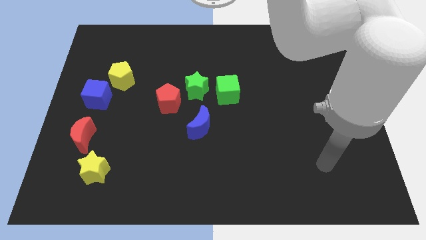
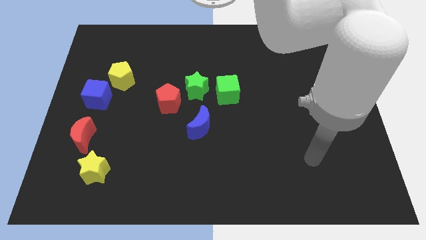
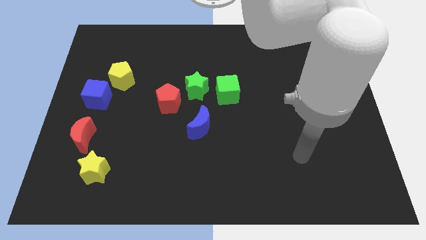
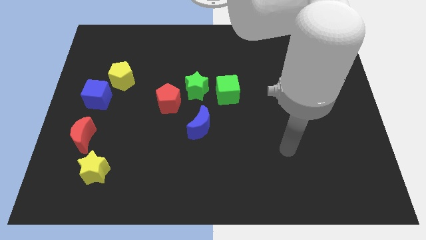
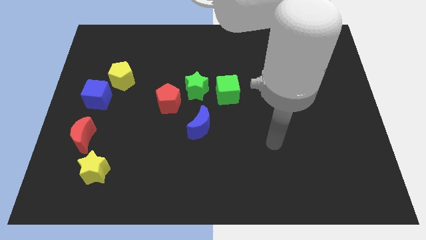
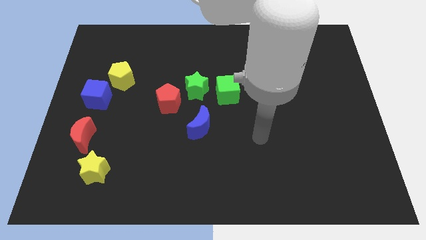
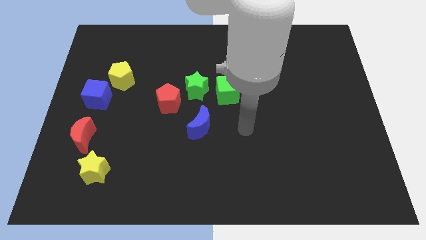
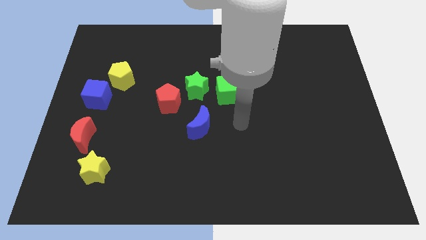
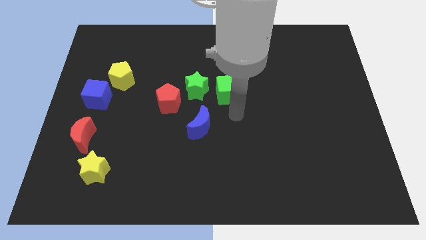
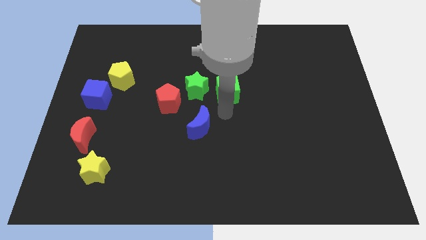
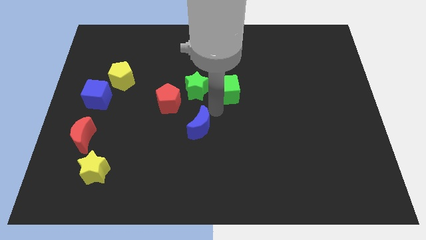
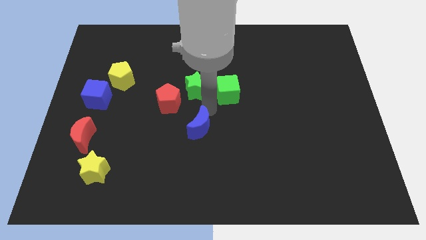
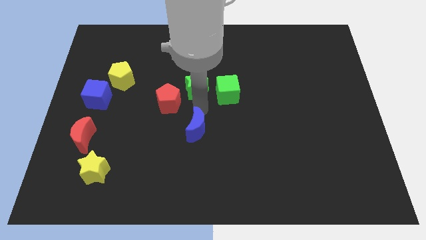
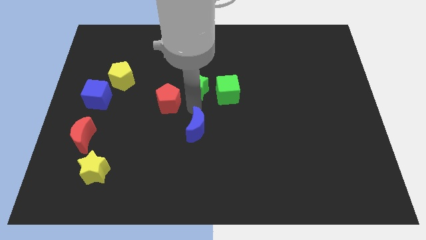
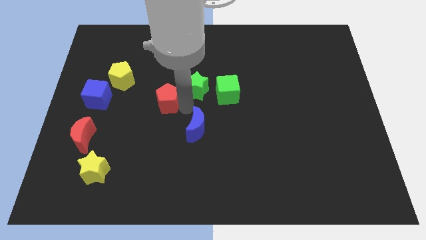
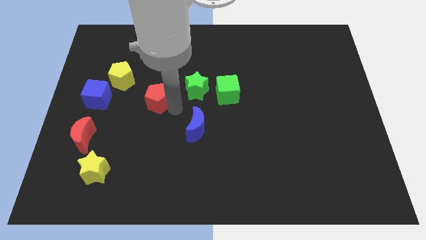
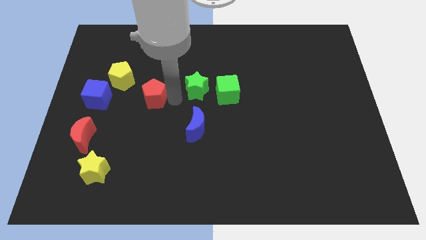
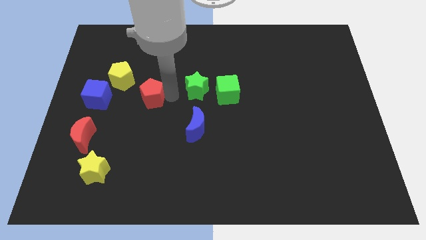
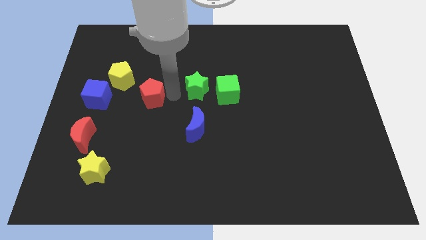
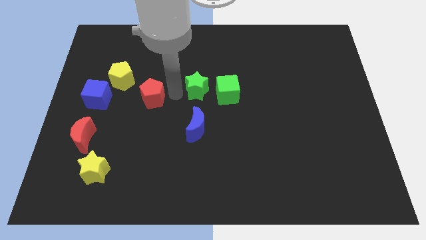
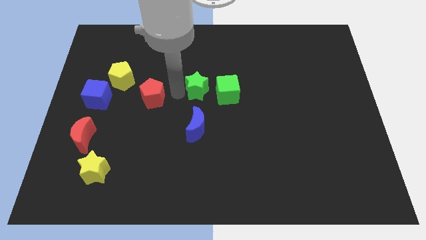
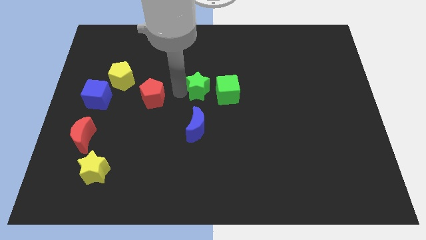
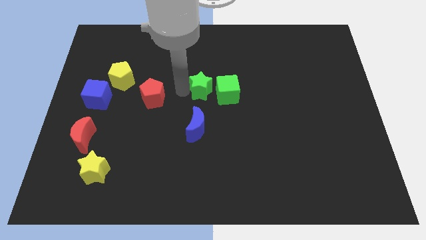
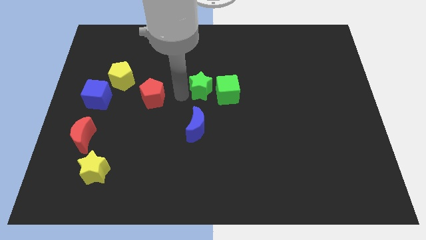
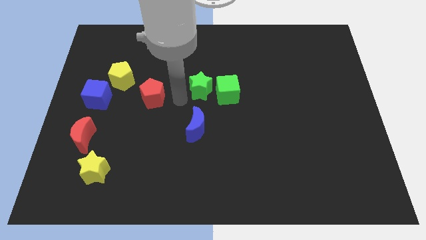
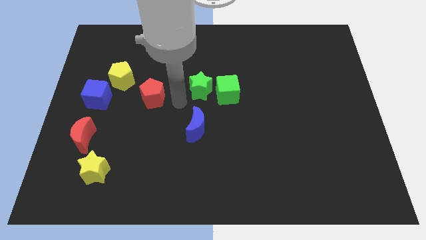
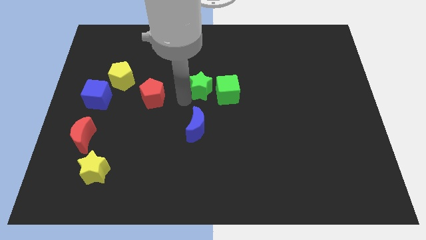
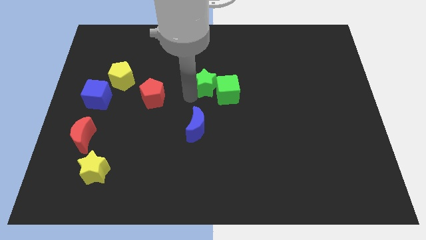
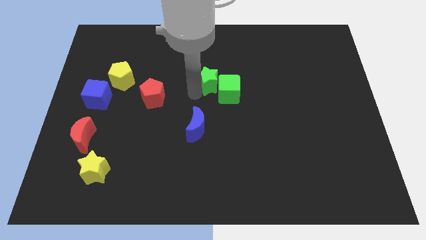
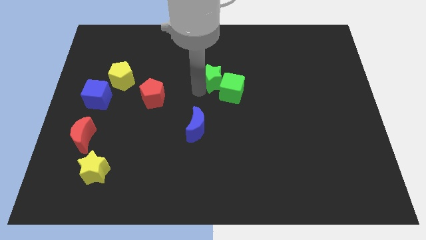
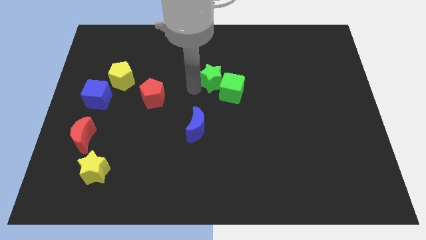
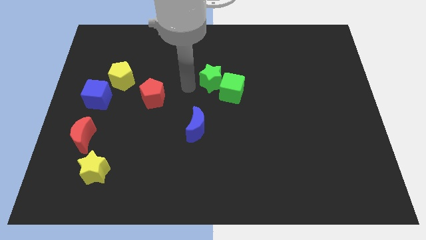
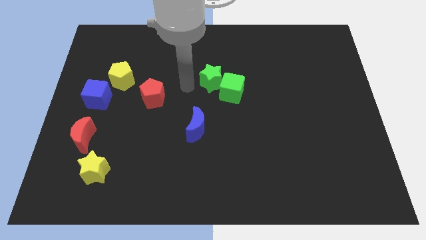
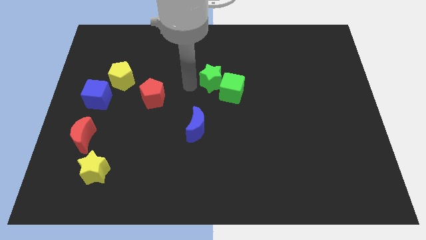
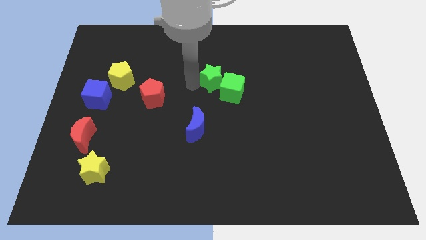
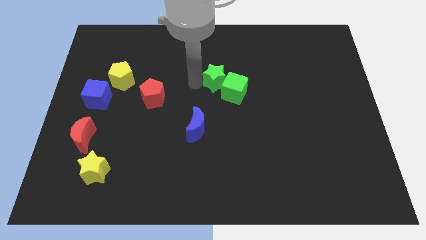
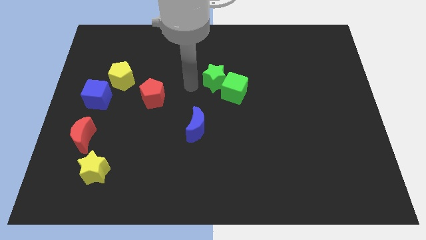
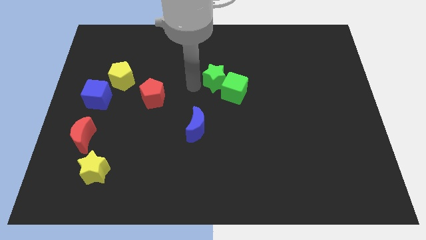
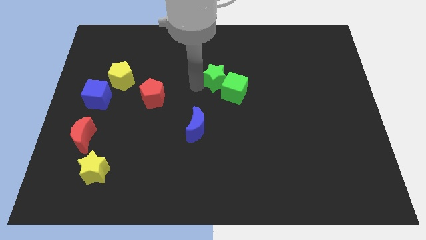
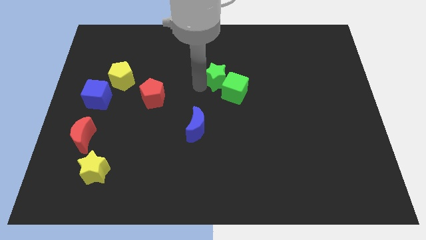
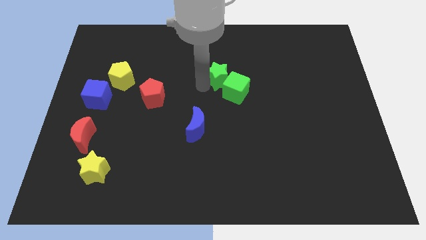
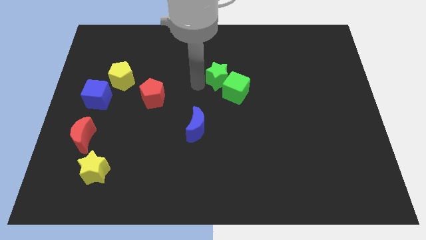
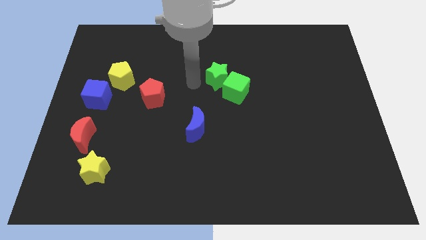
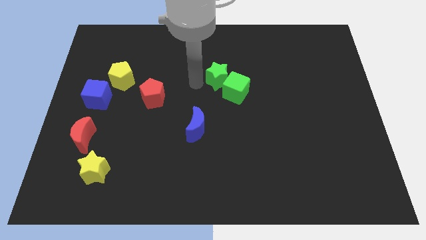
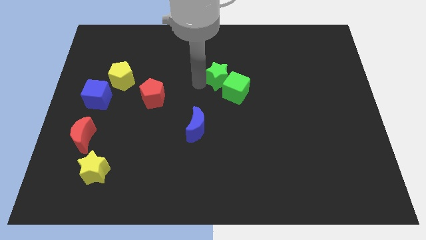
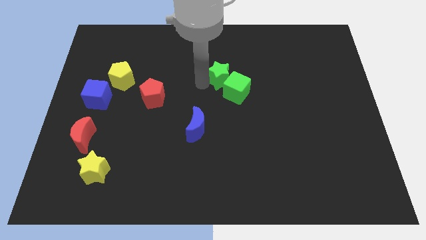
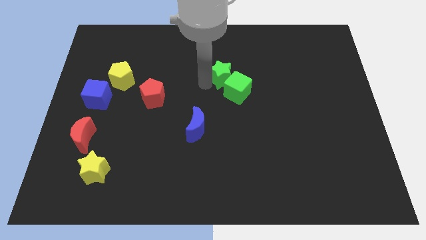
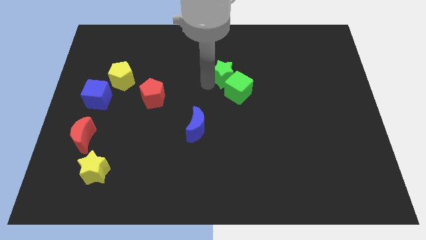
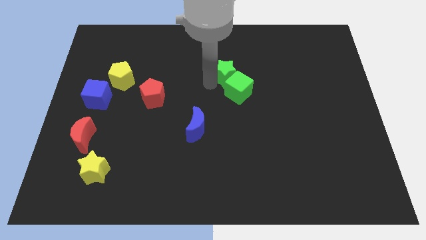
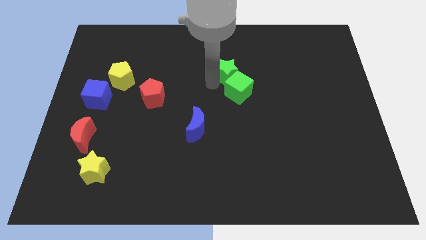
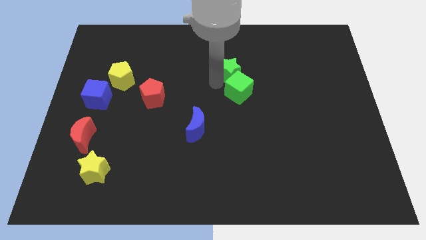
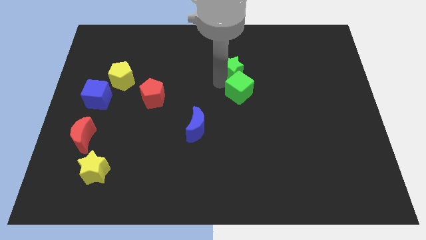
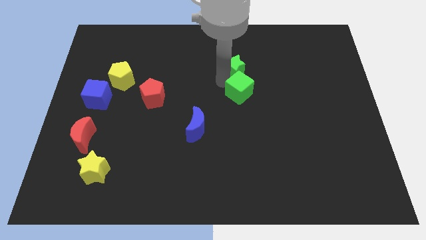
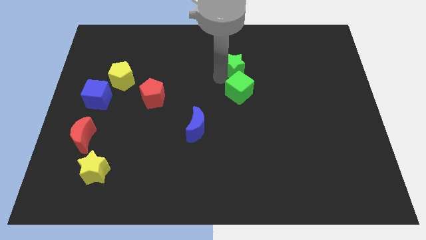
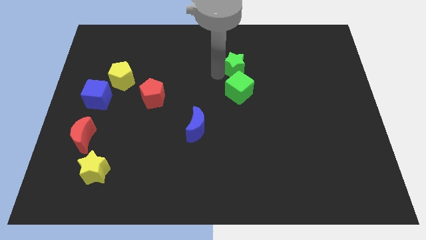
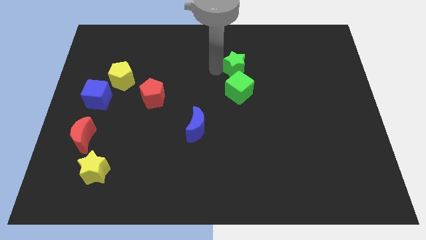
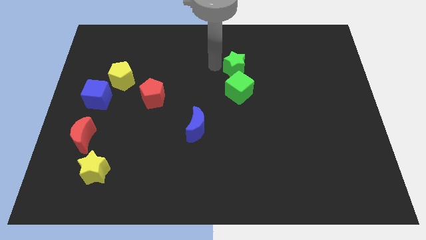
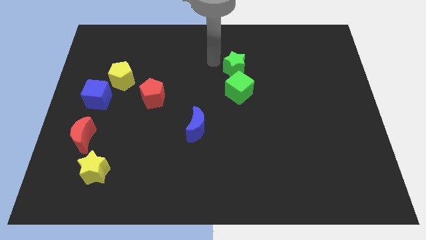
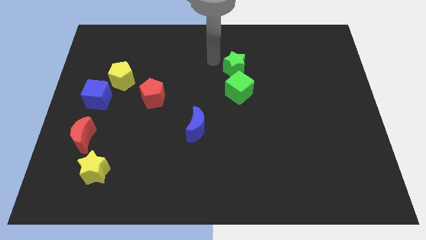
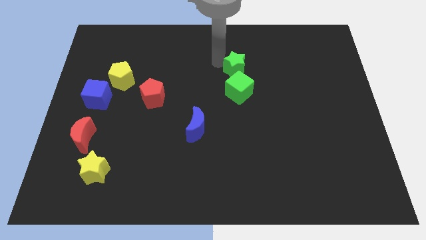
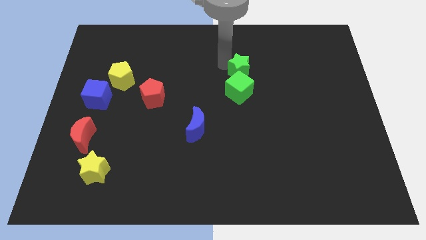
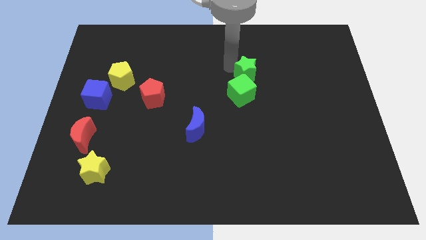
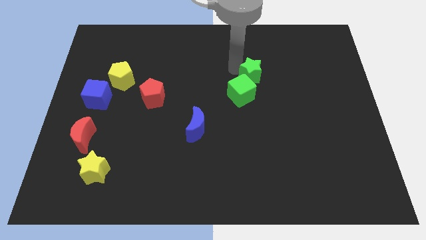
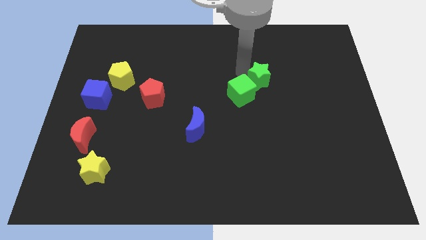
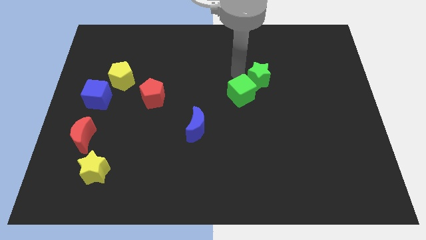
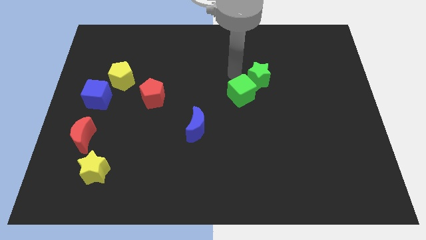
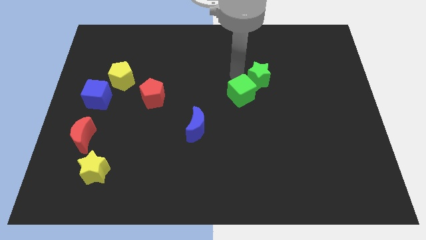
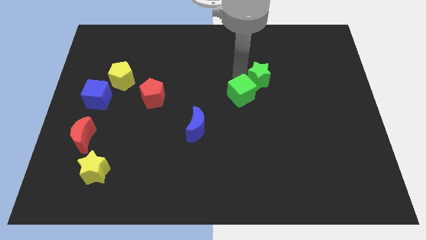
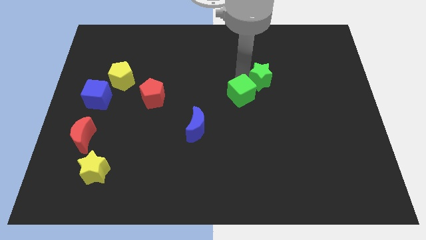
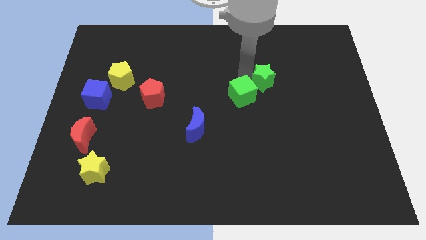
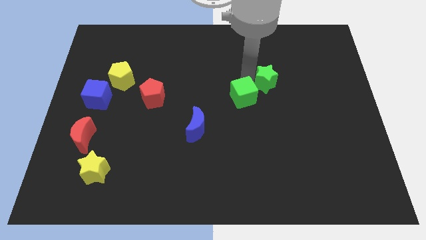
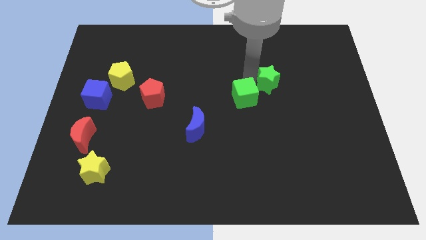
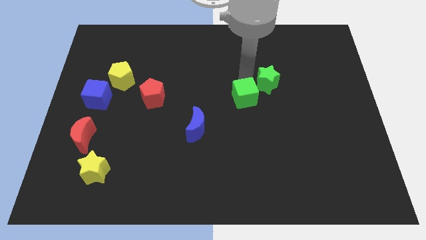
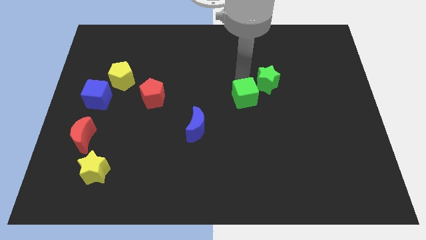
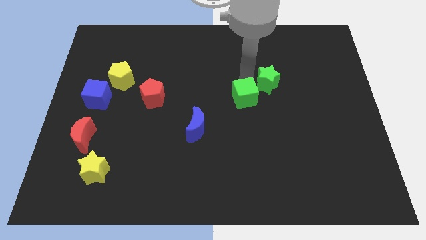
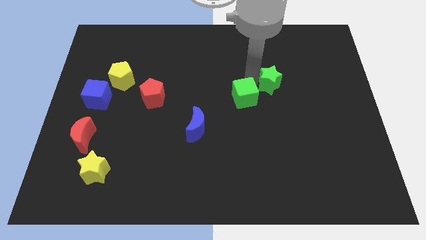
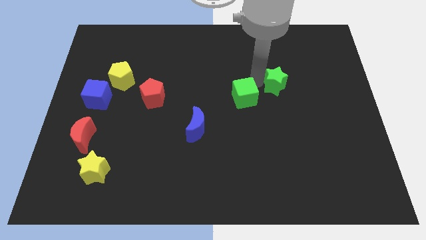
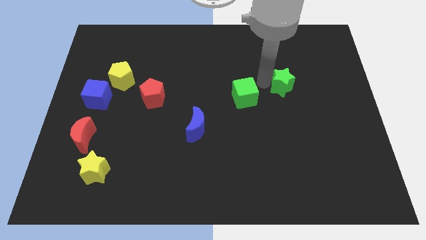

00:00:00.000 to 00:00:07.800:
slide the green star to the right
